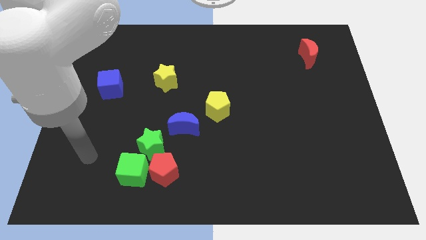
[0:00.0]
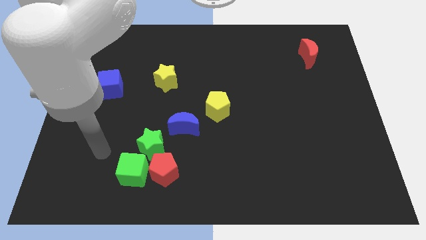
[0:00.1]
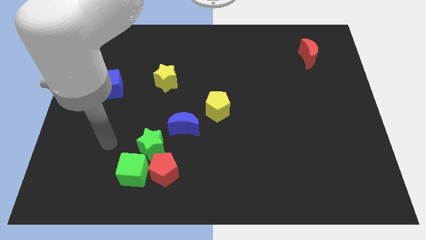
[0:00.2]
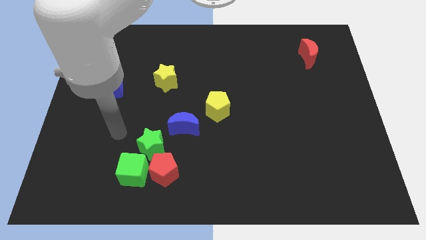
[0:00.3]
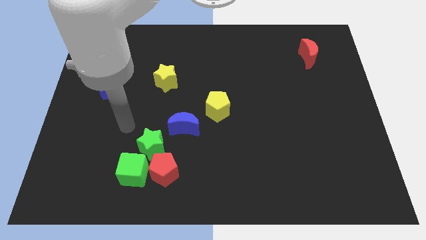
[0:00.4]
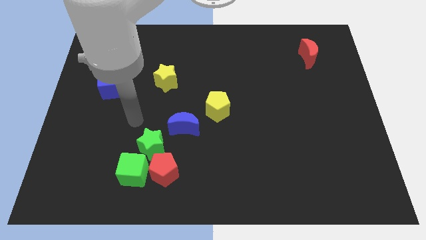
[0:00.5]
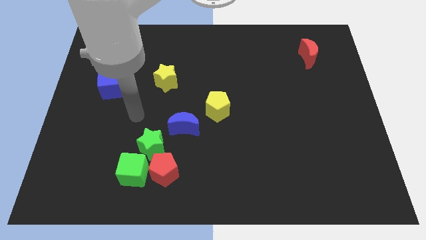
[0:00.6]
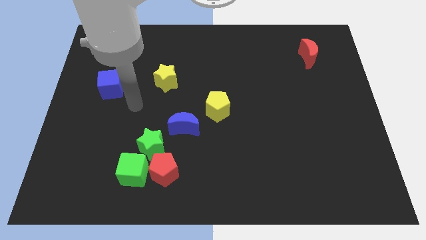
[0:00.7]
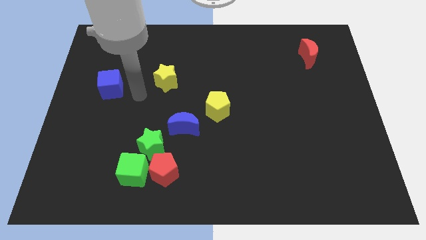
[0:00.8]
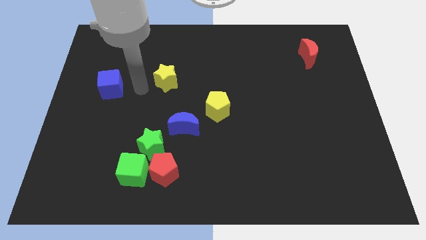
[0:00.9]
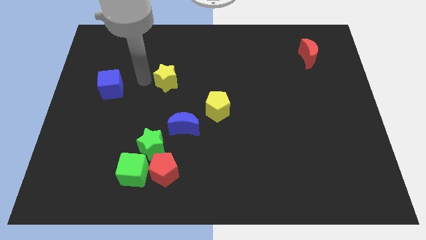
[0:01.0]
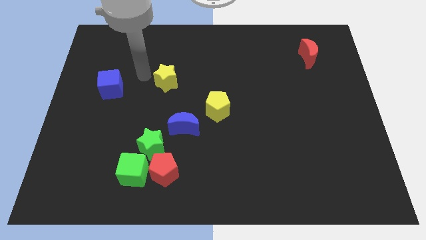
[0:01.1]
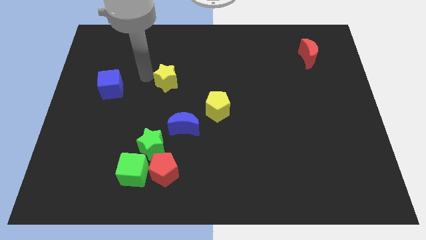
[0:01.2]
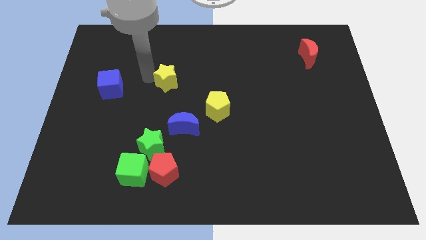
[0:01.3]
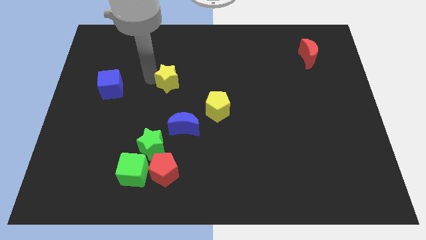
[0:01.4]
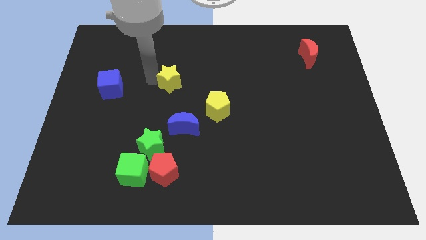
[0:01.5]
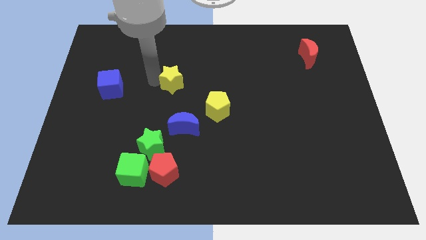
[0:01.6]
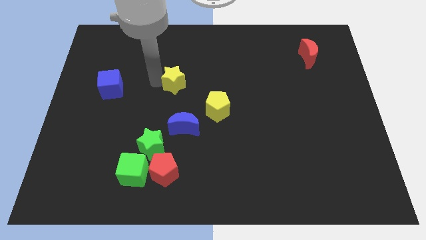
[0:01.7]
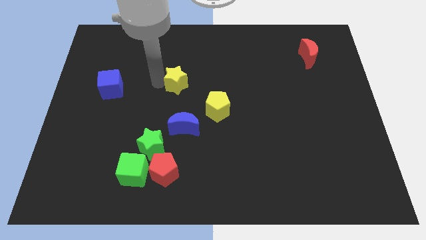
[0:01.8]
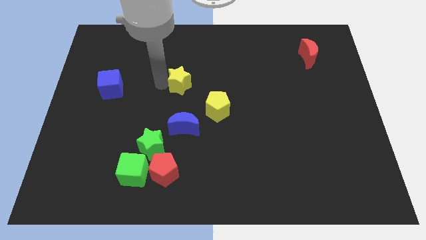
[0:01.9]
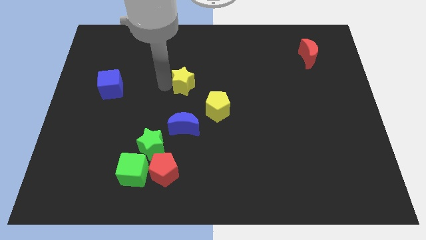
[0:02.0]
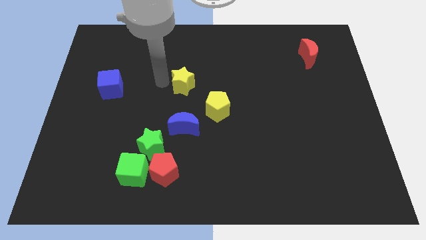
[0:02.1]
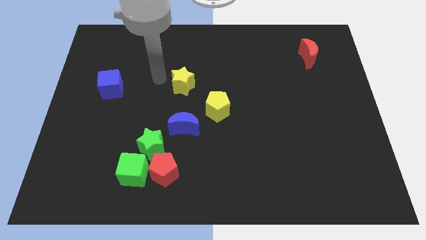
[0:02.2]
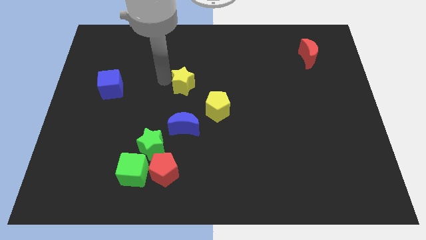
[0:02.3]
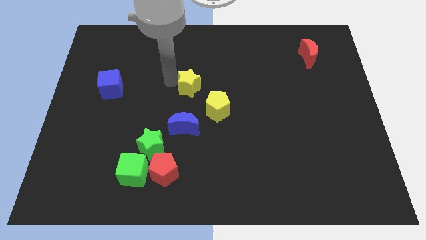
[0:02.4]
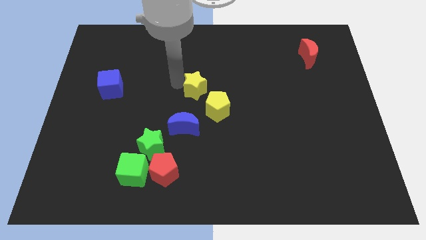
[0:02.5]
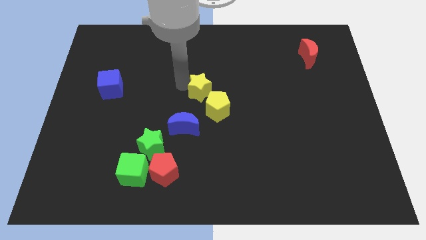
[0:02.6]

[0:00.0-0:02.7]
push the yellow star downwards and right diagonally slightly

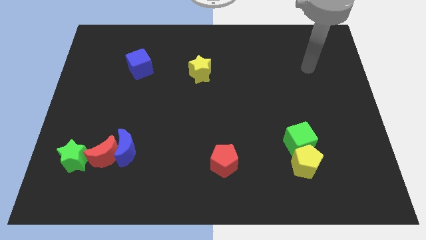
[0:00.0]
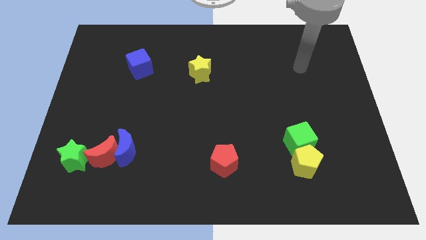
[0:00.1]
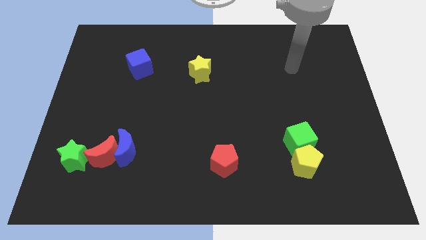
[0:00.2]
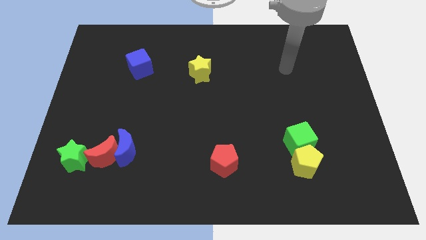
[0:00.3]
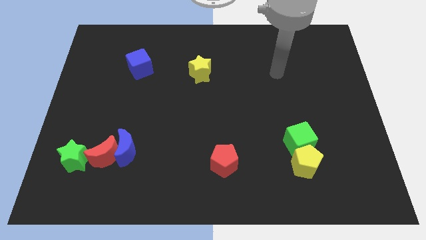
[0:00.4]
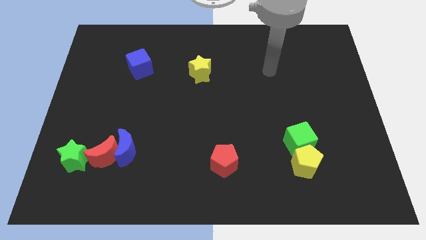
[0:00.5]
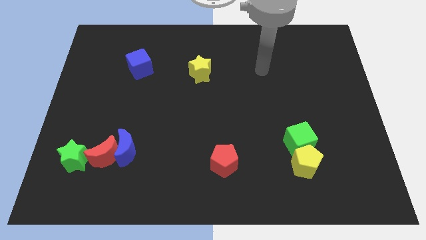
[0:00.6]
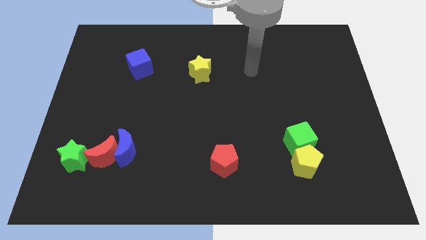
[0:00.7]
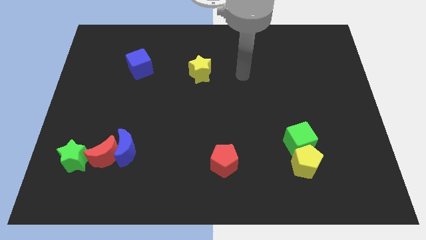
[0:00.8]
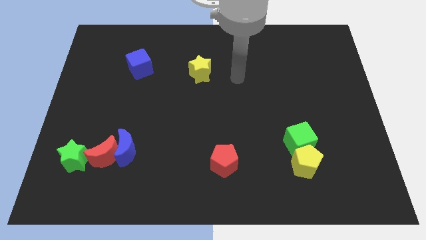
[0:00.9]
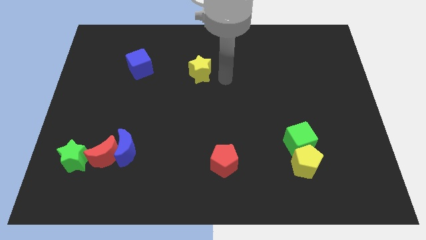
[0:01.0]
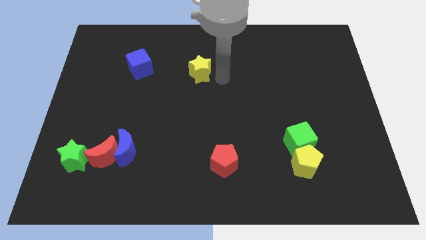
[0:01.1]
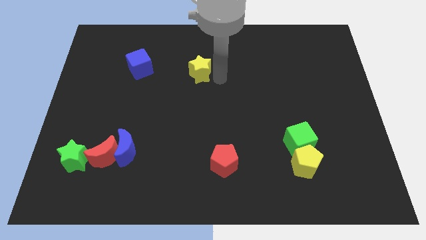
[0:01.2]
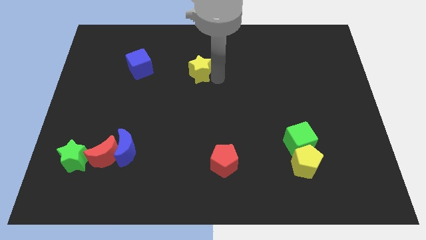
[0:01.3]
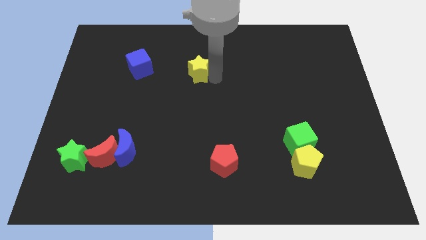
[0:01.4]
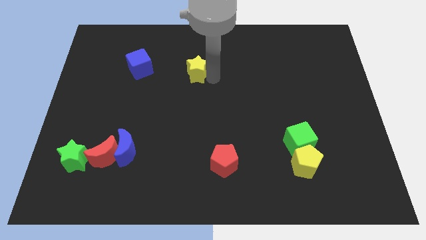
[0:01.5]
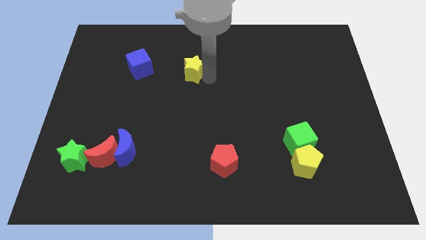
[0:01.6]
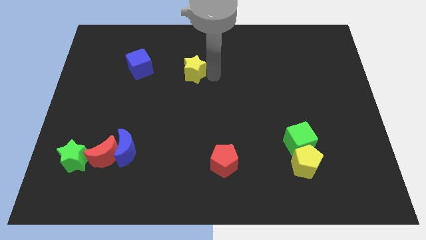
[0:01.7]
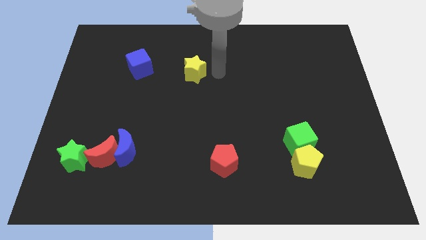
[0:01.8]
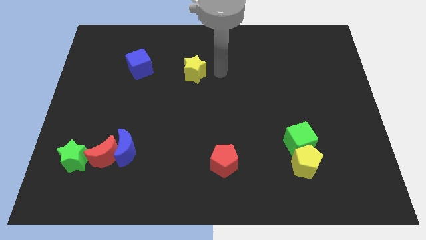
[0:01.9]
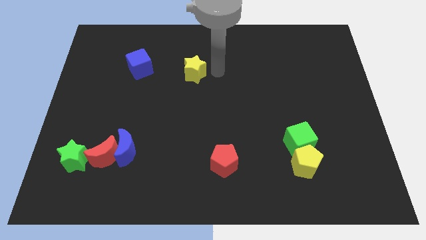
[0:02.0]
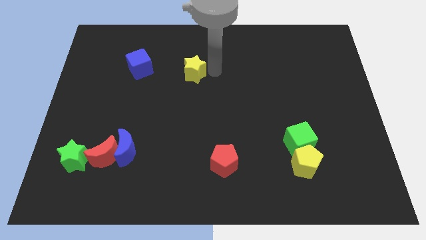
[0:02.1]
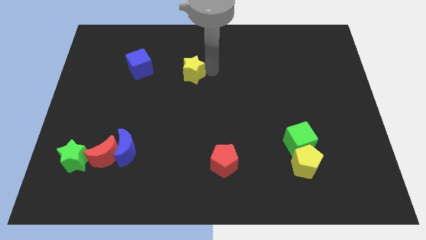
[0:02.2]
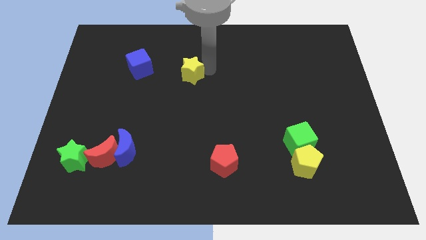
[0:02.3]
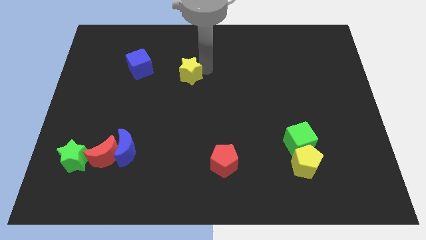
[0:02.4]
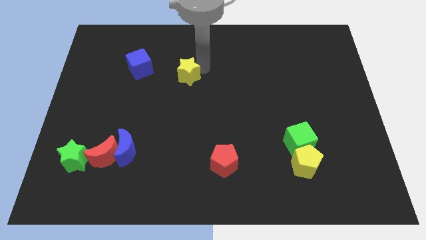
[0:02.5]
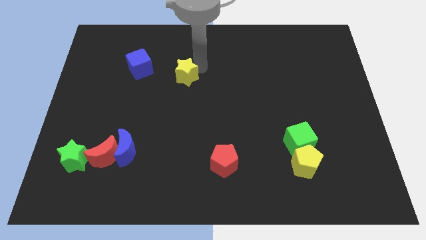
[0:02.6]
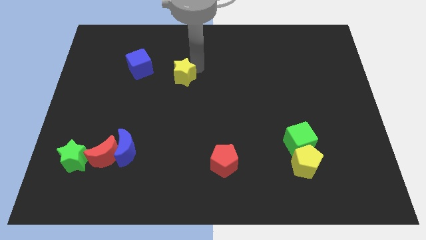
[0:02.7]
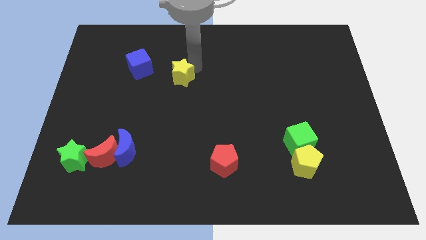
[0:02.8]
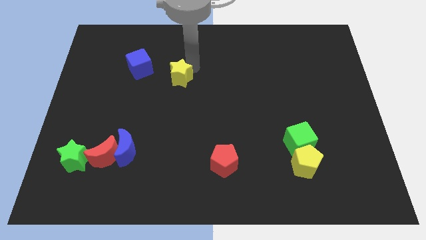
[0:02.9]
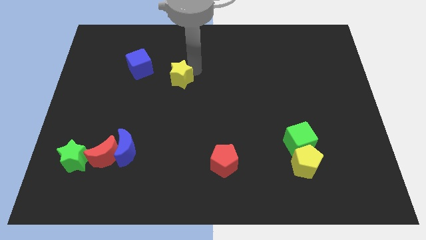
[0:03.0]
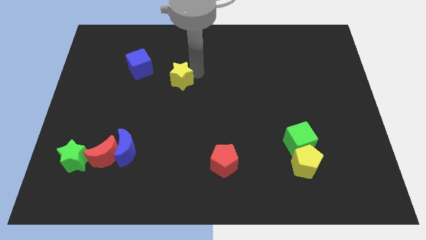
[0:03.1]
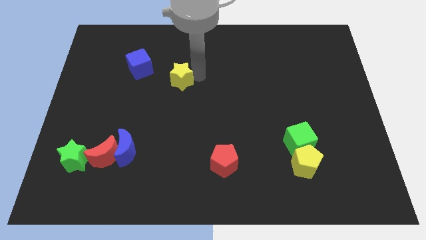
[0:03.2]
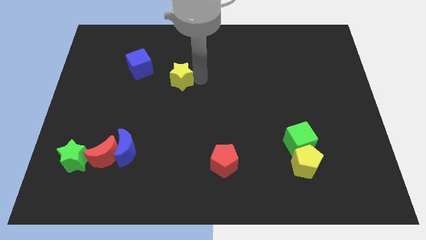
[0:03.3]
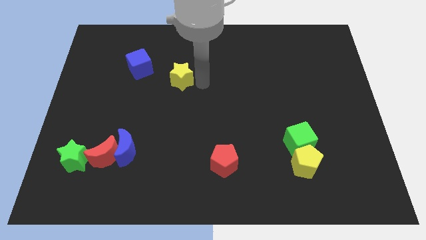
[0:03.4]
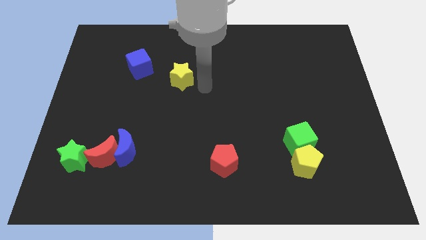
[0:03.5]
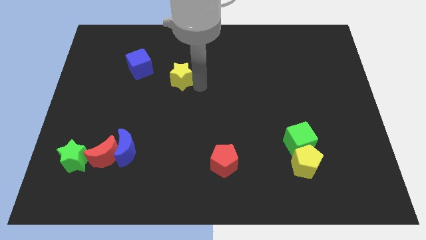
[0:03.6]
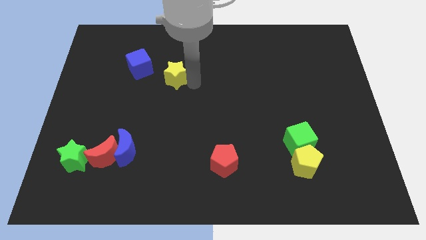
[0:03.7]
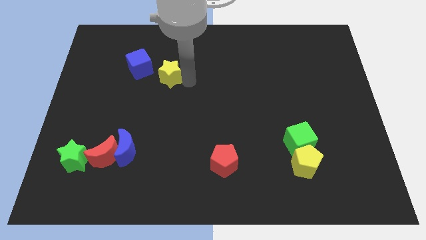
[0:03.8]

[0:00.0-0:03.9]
slide the yellow star a bit to the left

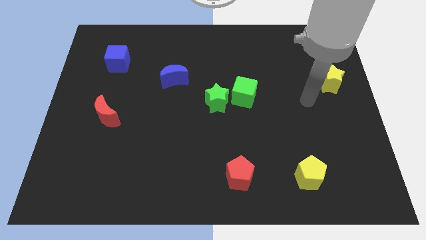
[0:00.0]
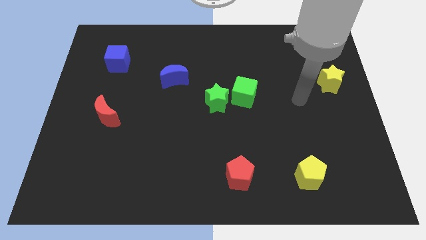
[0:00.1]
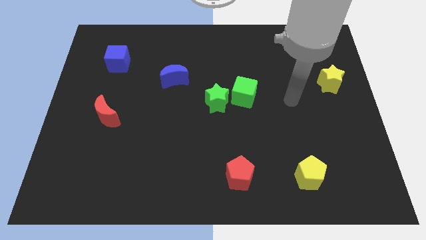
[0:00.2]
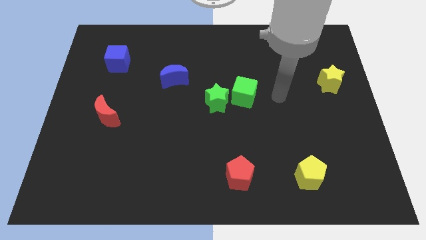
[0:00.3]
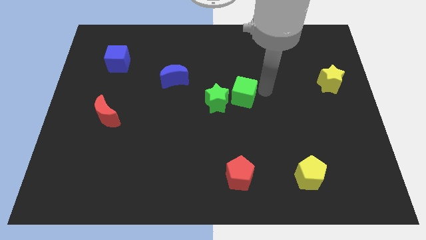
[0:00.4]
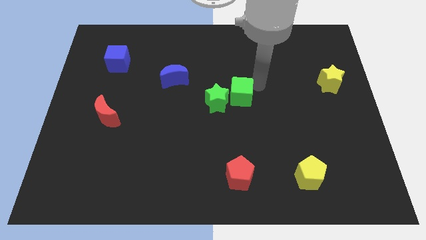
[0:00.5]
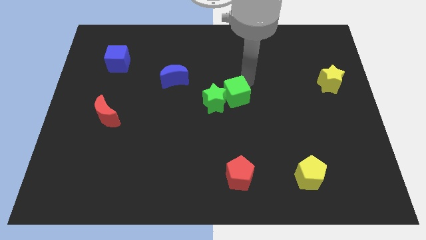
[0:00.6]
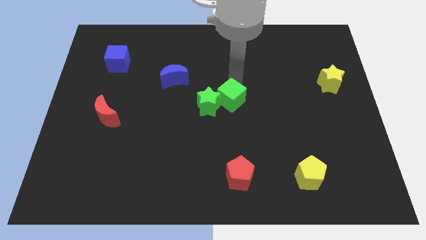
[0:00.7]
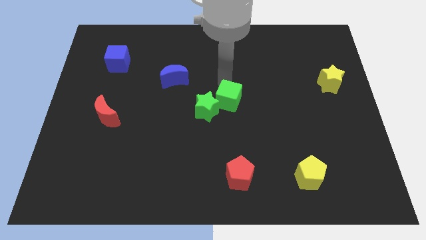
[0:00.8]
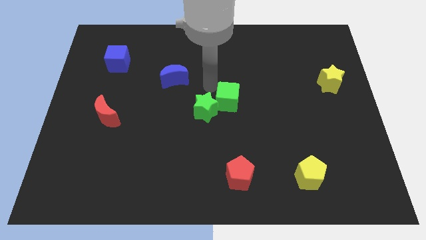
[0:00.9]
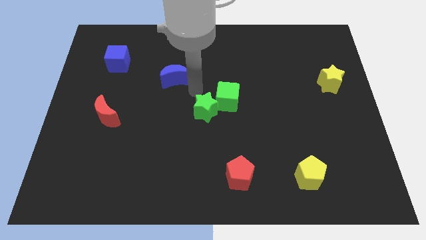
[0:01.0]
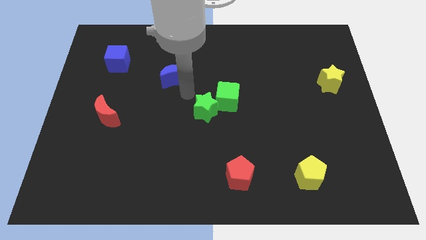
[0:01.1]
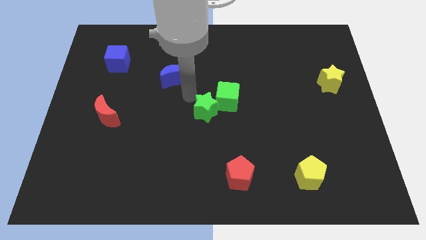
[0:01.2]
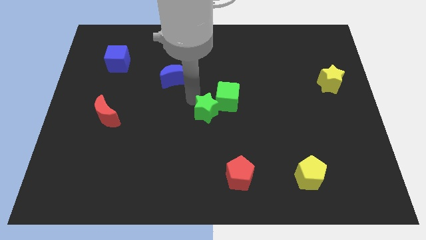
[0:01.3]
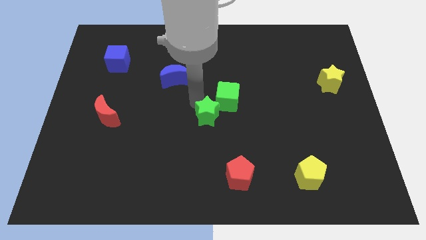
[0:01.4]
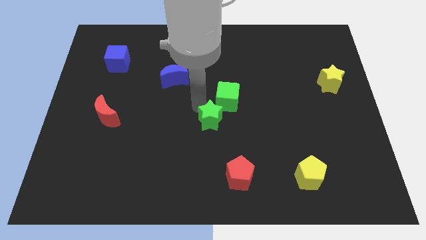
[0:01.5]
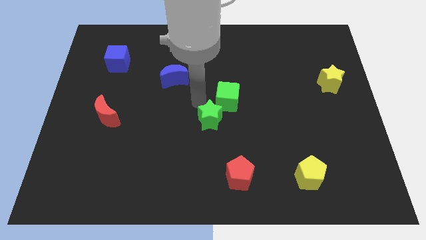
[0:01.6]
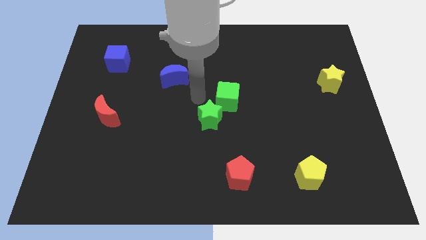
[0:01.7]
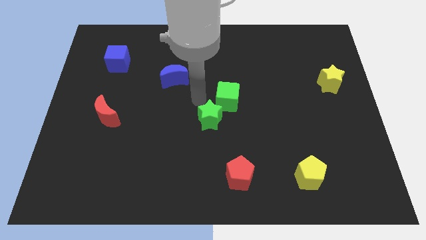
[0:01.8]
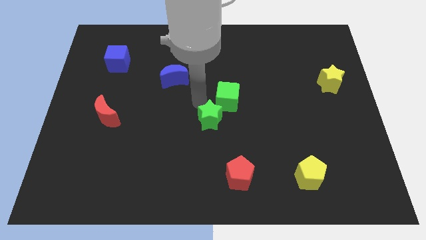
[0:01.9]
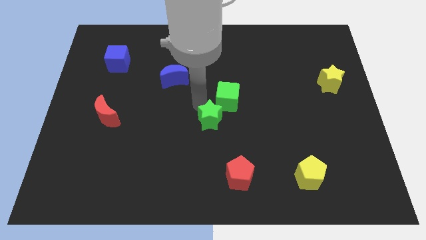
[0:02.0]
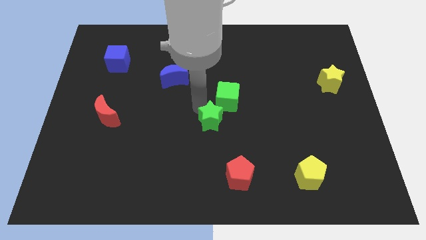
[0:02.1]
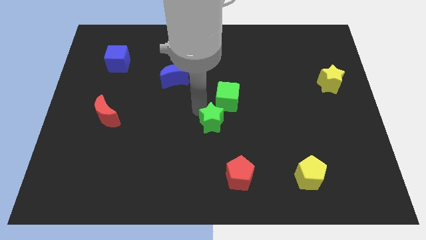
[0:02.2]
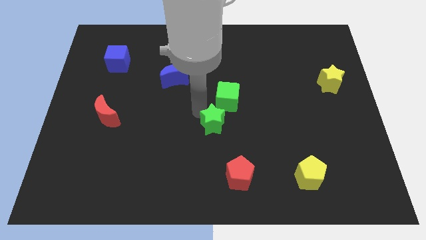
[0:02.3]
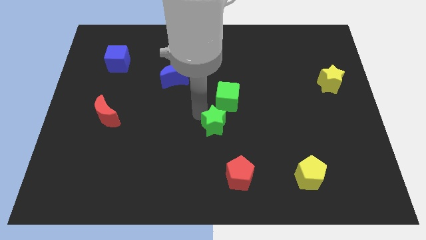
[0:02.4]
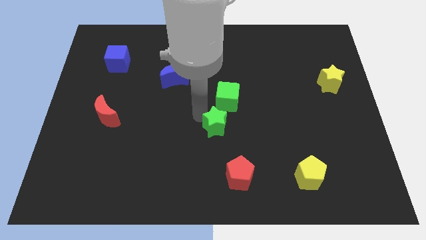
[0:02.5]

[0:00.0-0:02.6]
slightly slide the green star downwards
